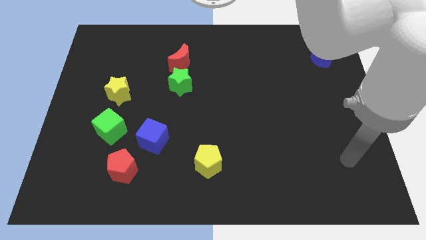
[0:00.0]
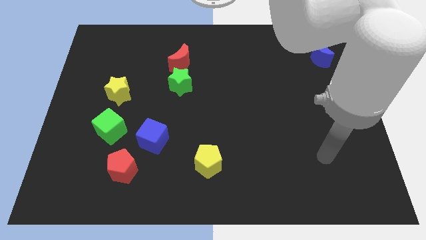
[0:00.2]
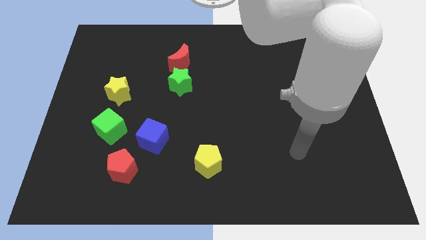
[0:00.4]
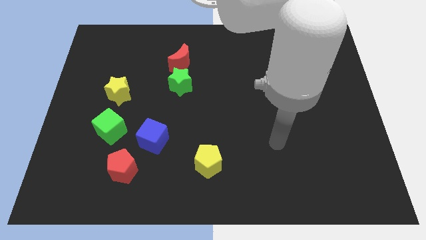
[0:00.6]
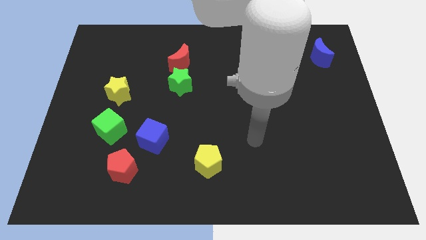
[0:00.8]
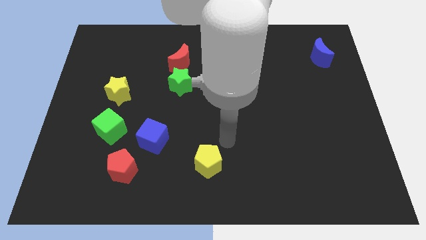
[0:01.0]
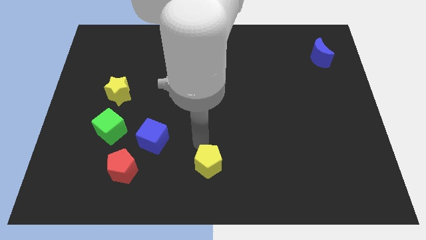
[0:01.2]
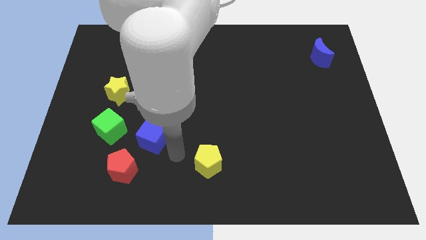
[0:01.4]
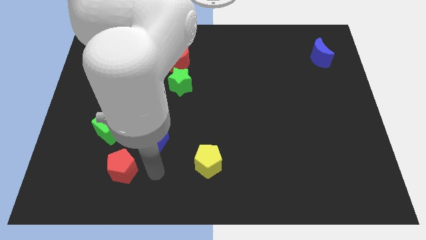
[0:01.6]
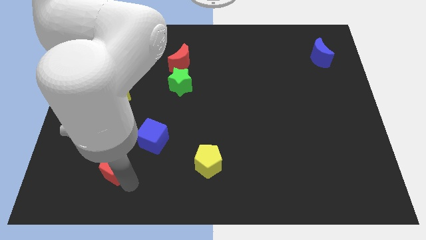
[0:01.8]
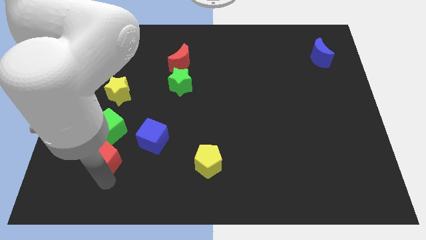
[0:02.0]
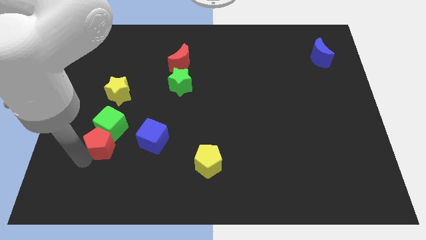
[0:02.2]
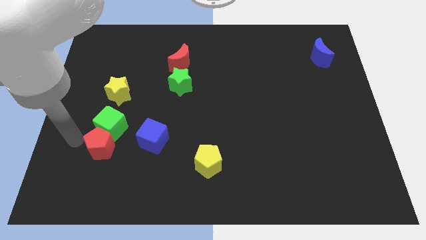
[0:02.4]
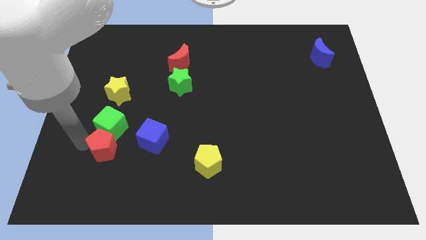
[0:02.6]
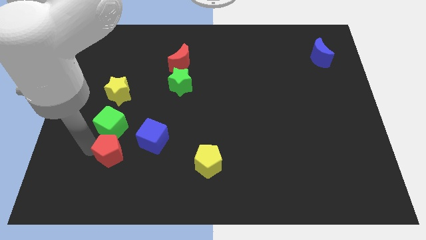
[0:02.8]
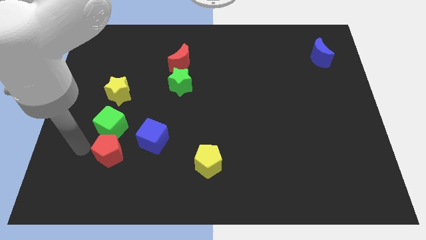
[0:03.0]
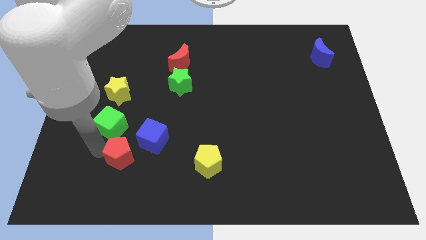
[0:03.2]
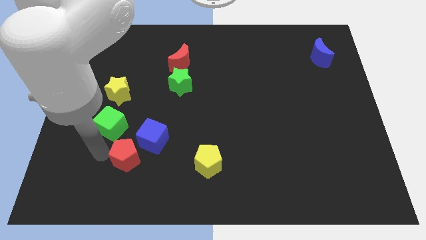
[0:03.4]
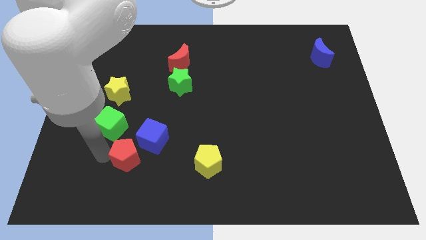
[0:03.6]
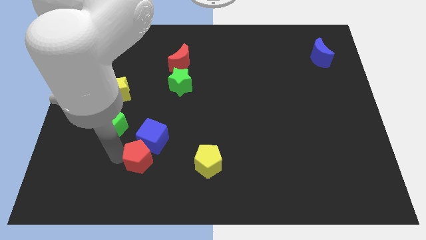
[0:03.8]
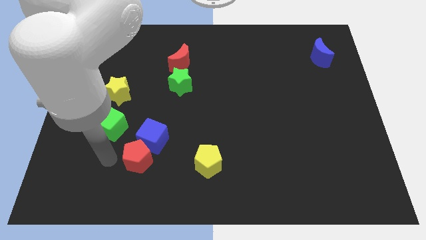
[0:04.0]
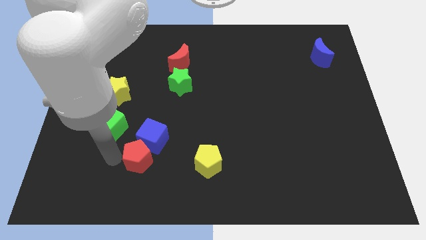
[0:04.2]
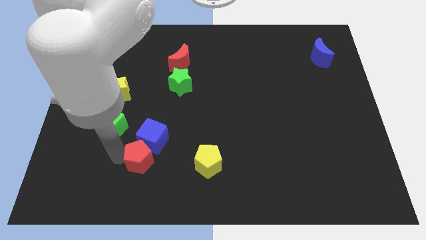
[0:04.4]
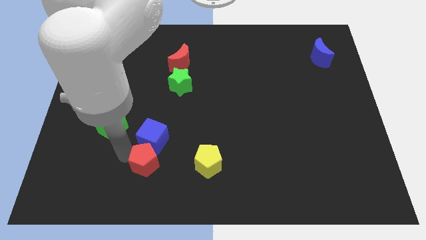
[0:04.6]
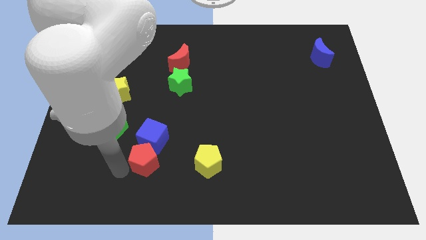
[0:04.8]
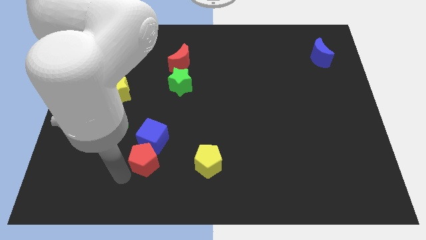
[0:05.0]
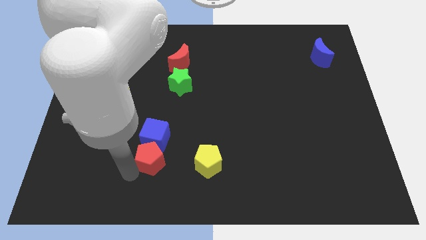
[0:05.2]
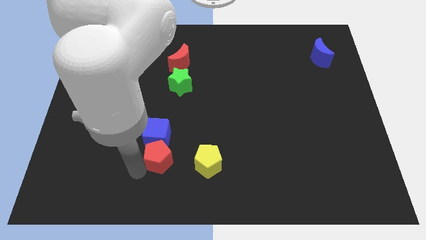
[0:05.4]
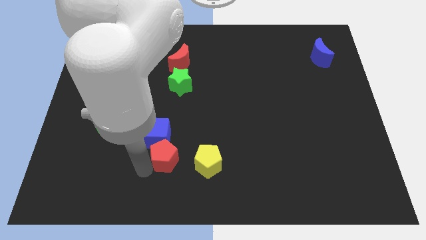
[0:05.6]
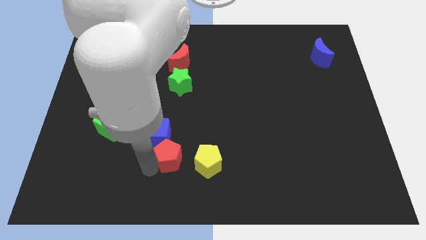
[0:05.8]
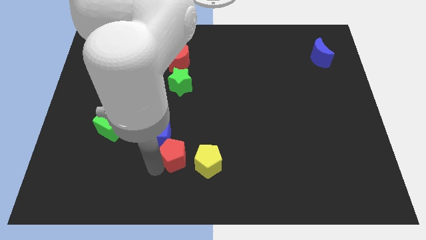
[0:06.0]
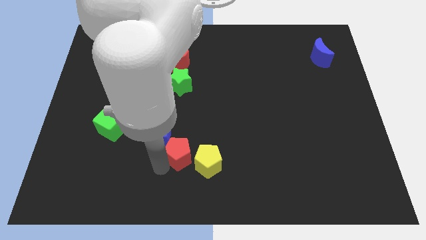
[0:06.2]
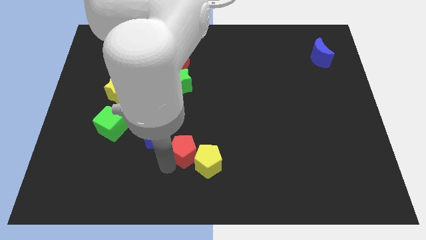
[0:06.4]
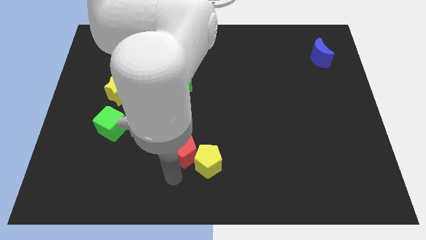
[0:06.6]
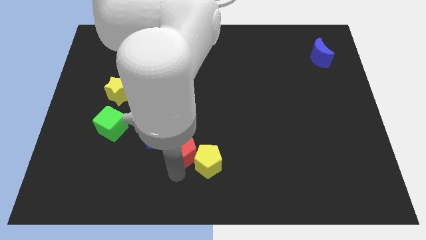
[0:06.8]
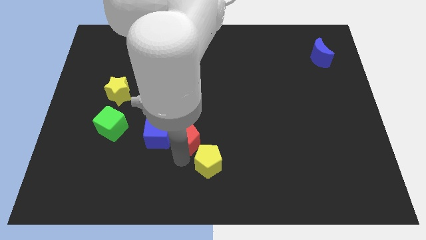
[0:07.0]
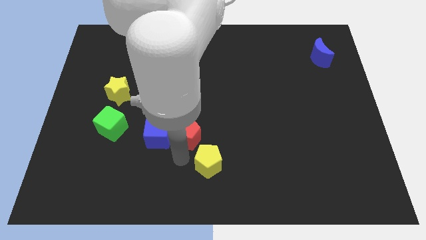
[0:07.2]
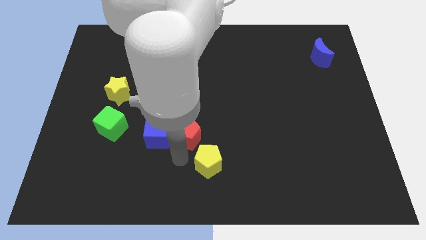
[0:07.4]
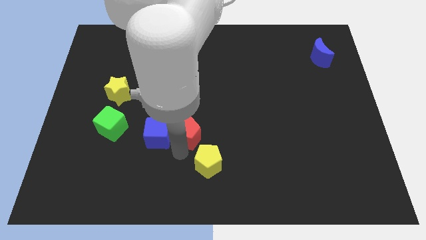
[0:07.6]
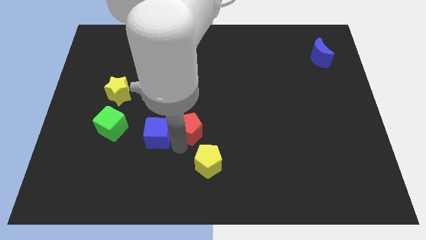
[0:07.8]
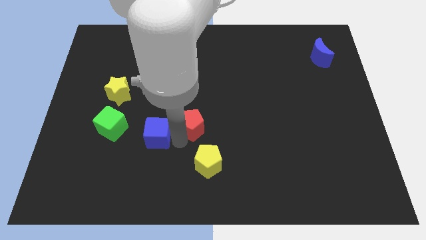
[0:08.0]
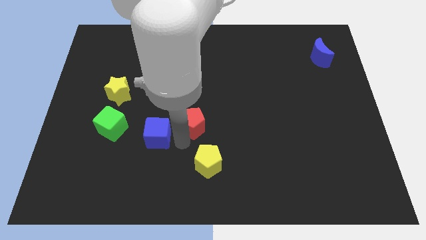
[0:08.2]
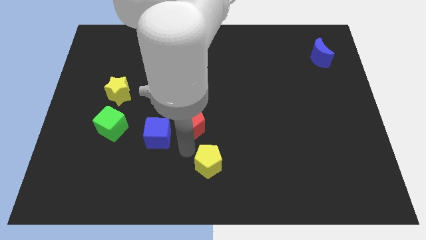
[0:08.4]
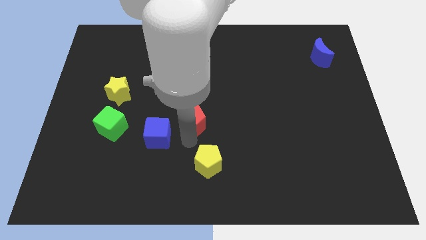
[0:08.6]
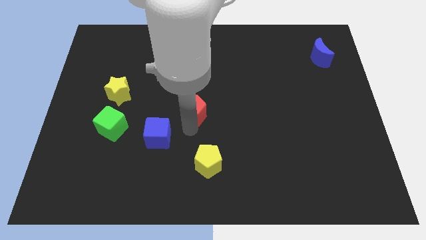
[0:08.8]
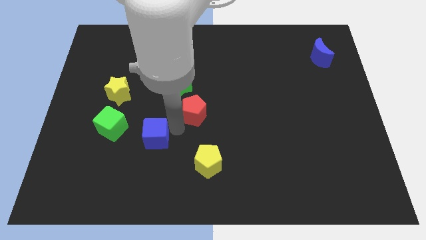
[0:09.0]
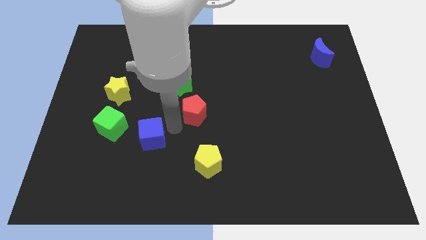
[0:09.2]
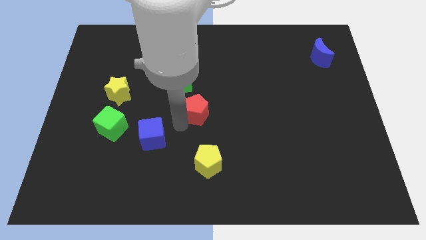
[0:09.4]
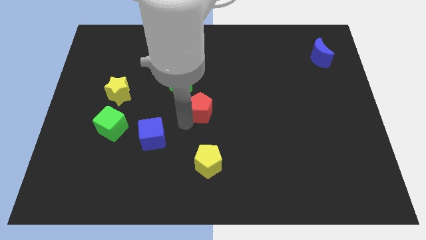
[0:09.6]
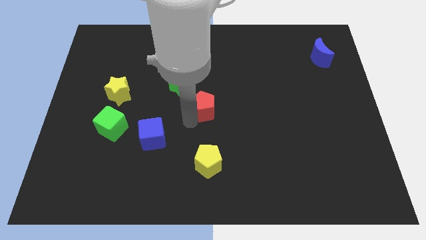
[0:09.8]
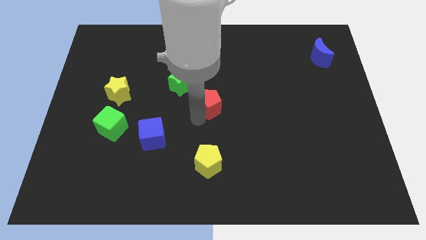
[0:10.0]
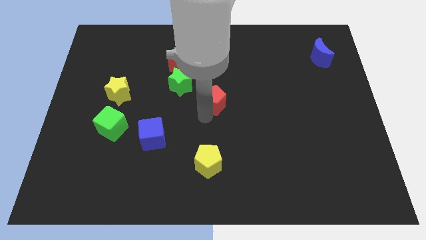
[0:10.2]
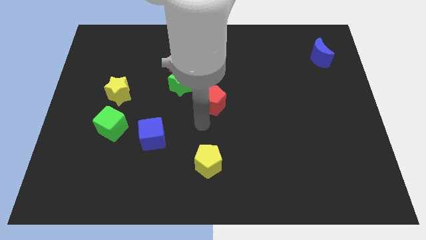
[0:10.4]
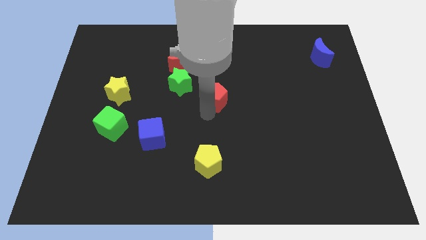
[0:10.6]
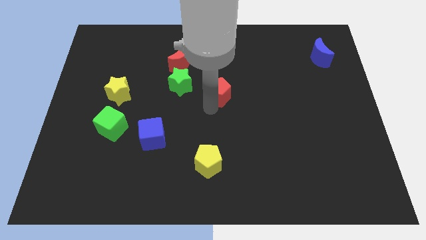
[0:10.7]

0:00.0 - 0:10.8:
put the red pentagon just right of the green star

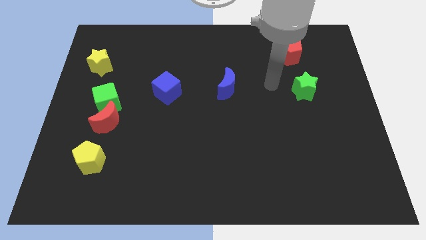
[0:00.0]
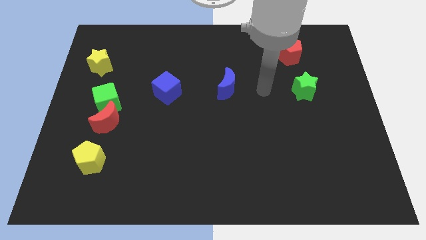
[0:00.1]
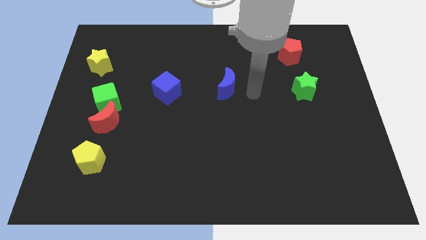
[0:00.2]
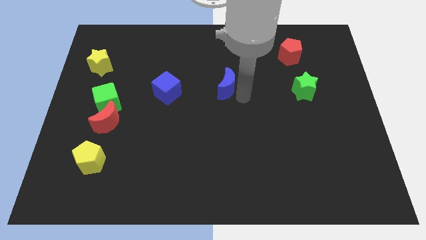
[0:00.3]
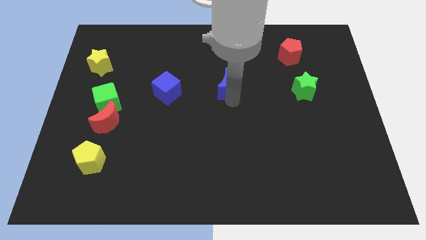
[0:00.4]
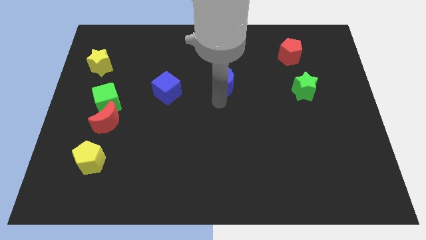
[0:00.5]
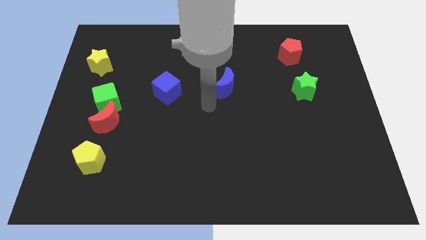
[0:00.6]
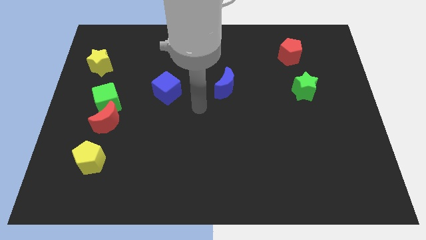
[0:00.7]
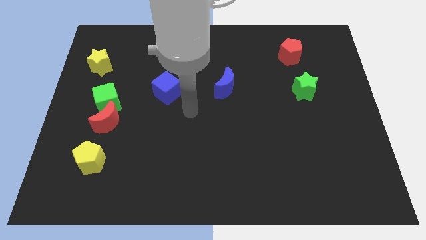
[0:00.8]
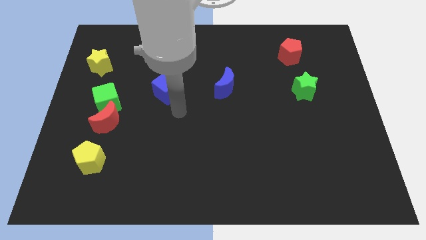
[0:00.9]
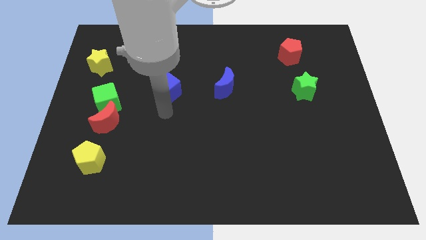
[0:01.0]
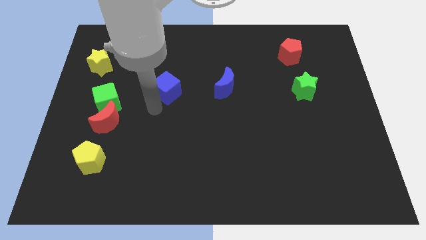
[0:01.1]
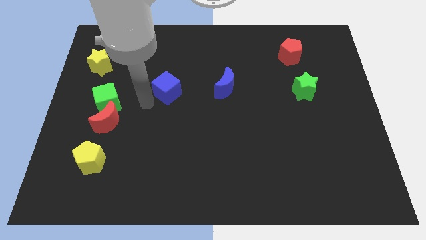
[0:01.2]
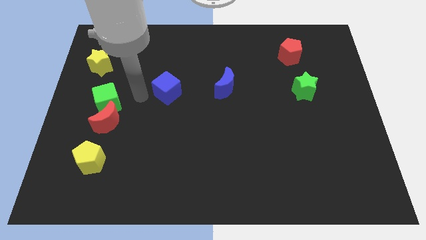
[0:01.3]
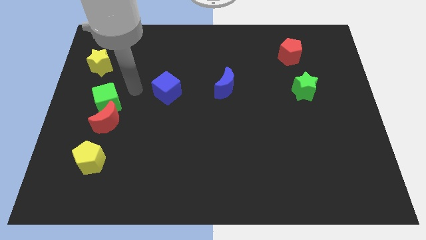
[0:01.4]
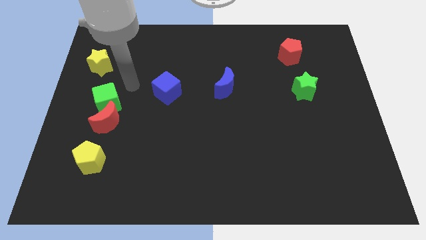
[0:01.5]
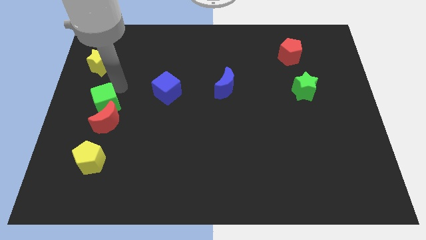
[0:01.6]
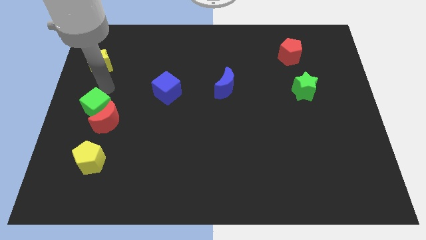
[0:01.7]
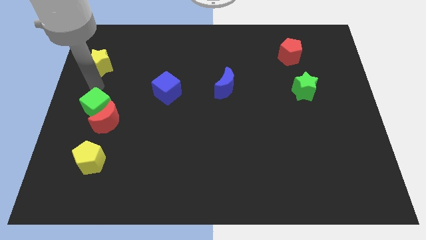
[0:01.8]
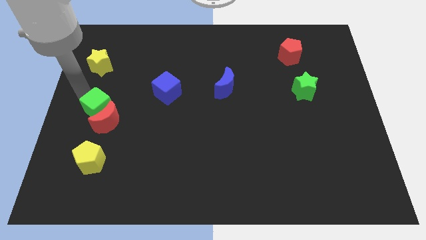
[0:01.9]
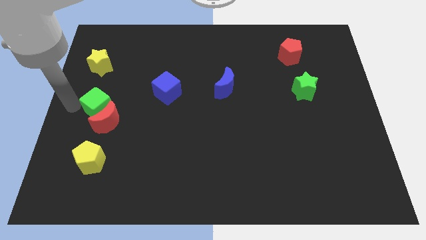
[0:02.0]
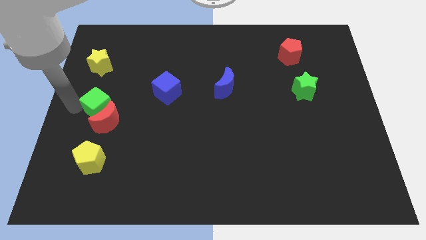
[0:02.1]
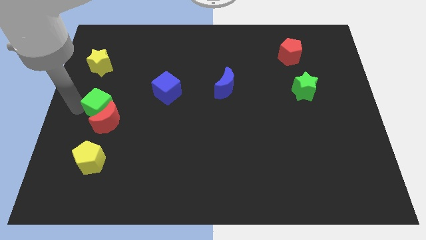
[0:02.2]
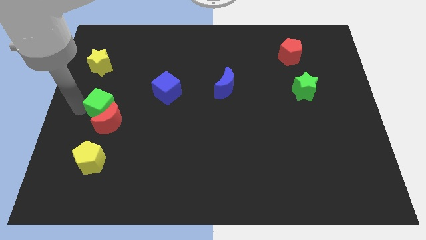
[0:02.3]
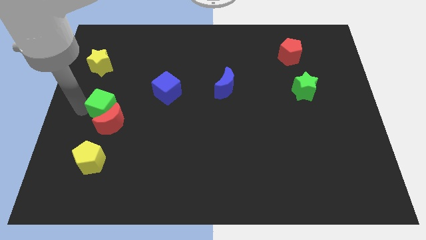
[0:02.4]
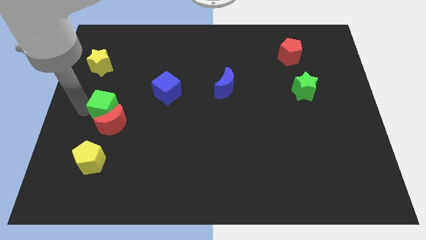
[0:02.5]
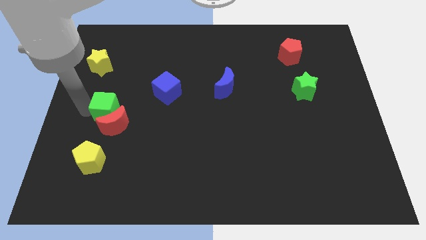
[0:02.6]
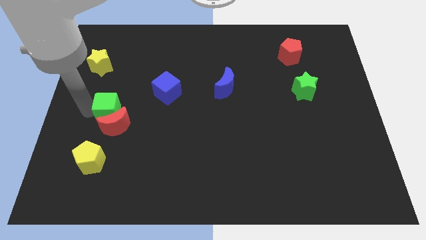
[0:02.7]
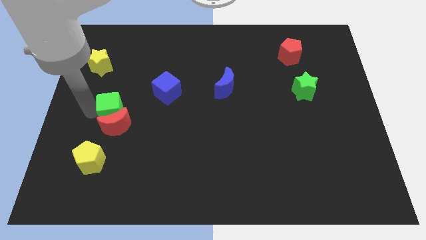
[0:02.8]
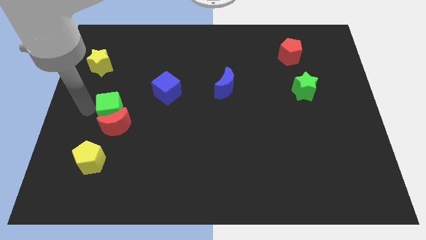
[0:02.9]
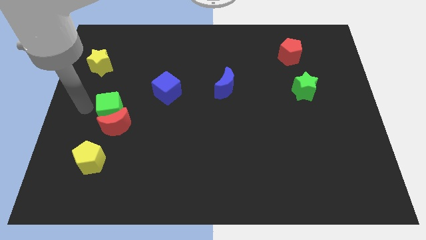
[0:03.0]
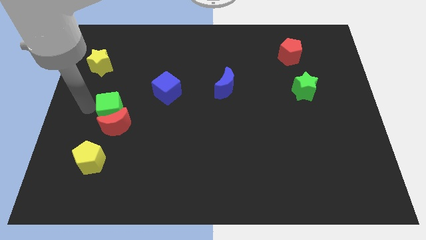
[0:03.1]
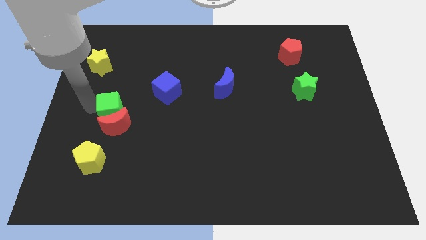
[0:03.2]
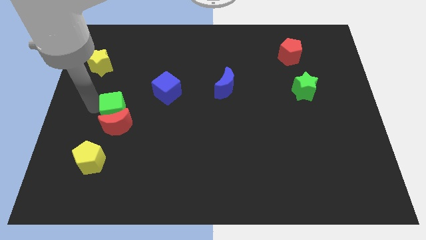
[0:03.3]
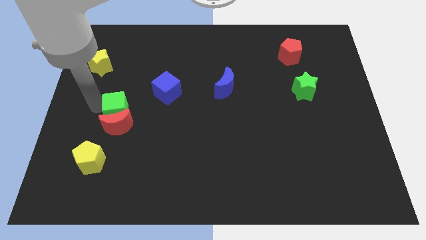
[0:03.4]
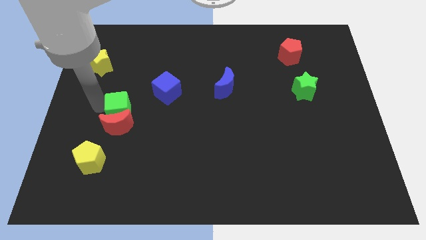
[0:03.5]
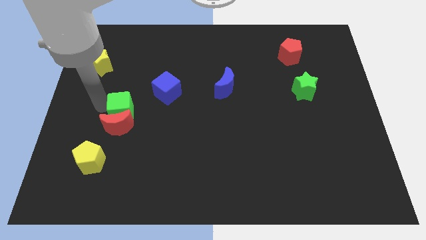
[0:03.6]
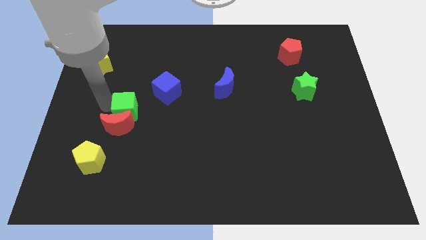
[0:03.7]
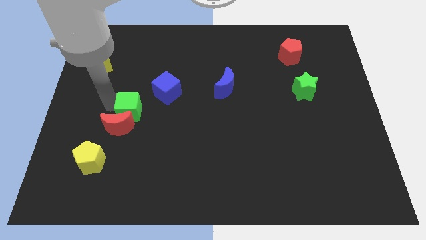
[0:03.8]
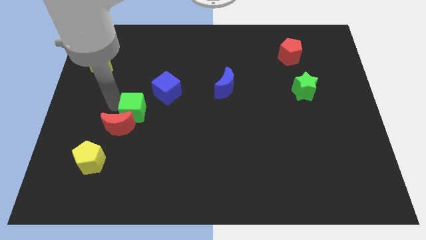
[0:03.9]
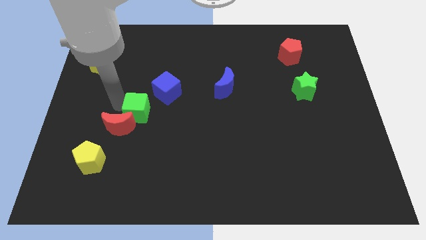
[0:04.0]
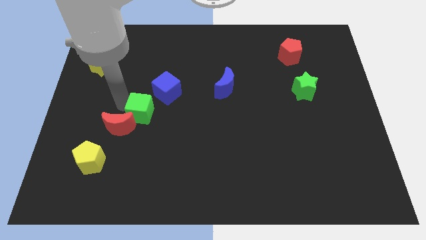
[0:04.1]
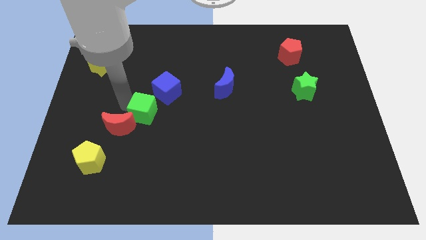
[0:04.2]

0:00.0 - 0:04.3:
put the green cube to the bottom of the blue cube
